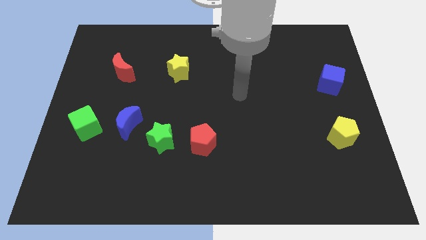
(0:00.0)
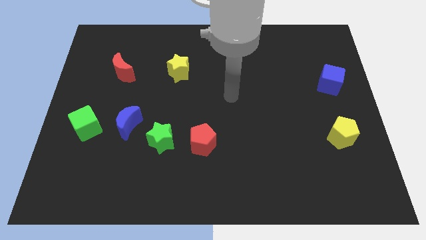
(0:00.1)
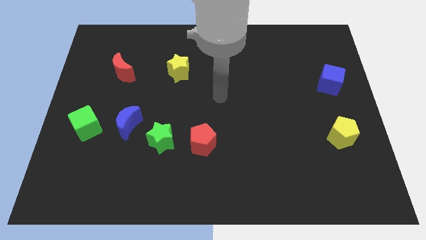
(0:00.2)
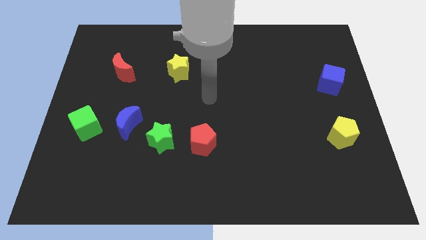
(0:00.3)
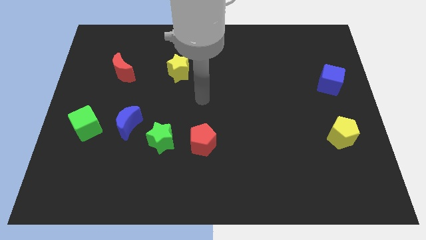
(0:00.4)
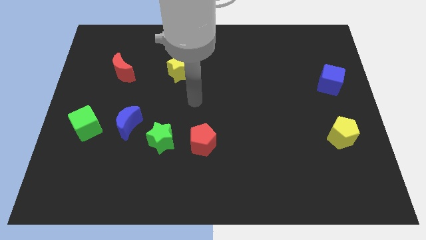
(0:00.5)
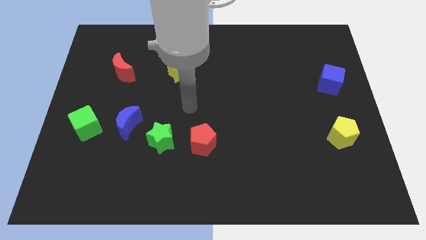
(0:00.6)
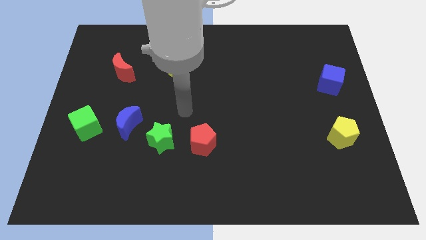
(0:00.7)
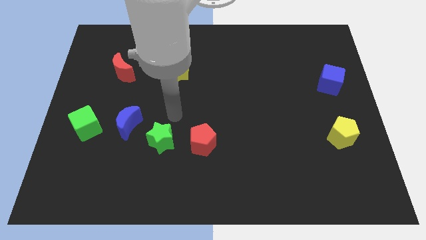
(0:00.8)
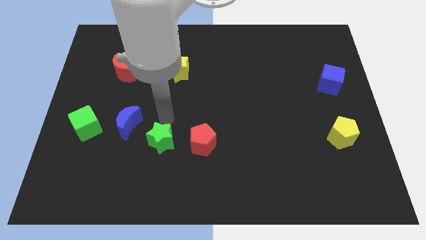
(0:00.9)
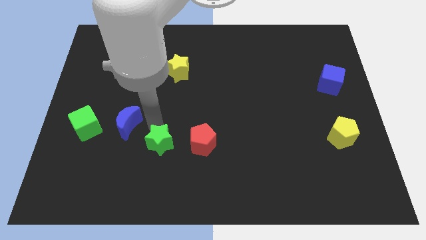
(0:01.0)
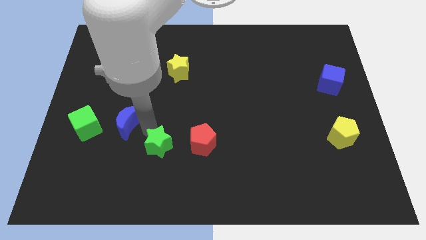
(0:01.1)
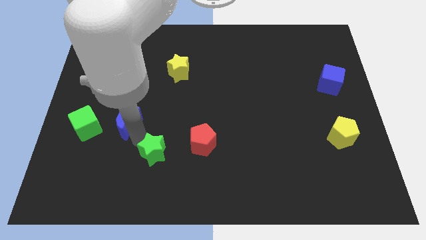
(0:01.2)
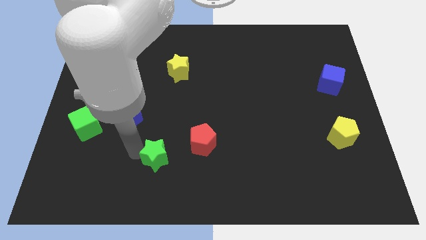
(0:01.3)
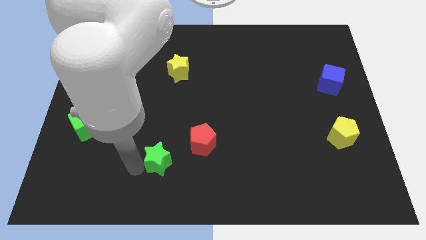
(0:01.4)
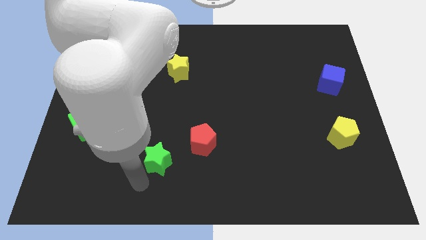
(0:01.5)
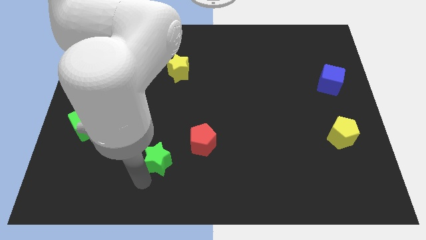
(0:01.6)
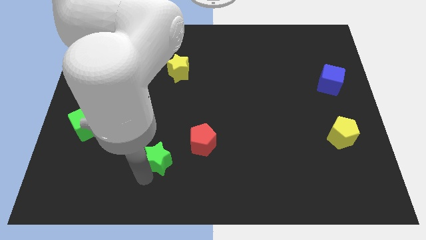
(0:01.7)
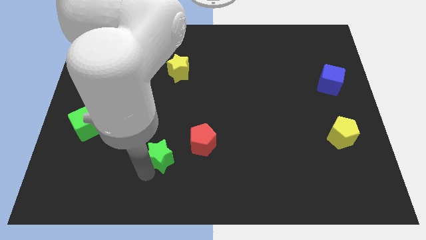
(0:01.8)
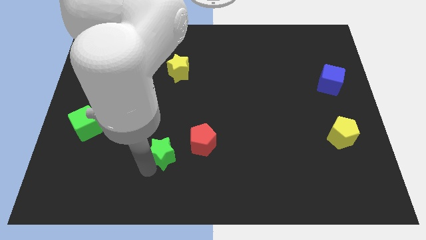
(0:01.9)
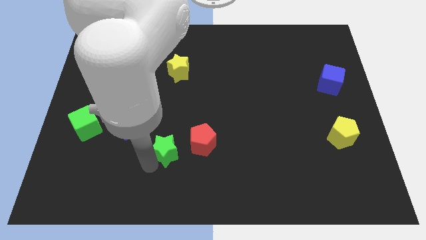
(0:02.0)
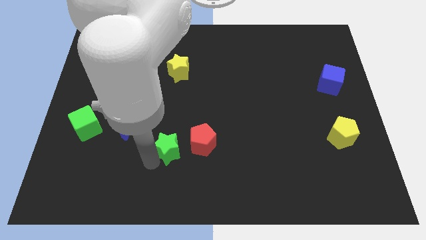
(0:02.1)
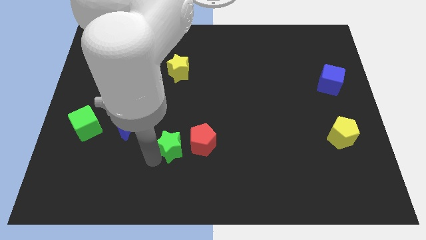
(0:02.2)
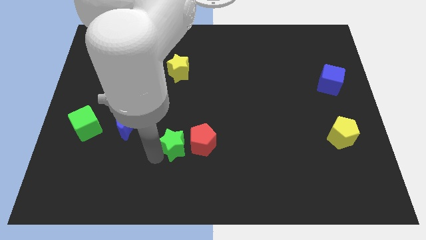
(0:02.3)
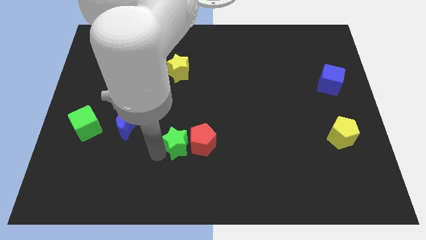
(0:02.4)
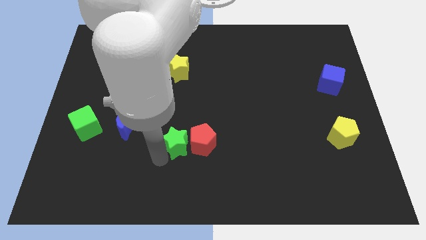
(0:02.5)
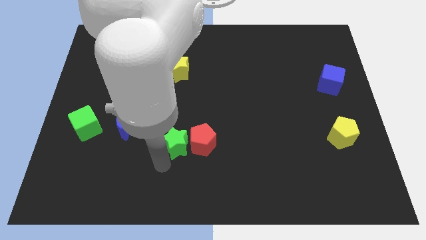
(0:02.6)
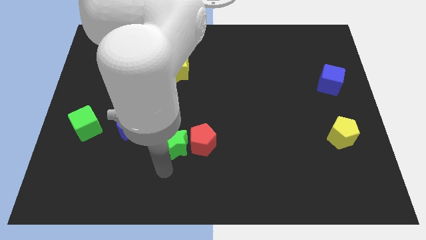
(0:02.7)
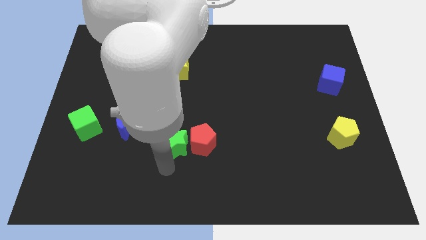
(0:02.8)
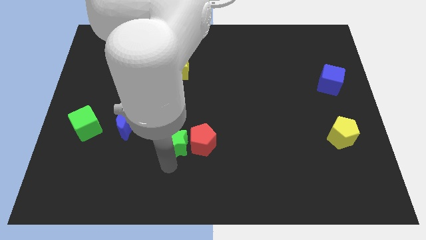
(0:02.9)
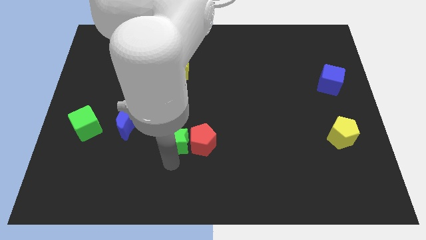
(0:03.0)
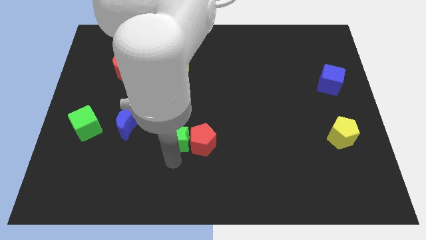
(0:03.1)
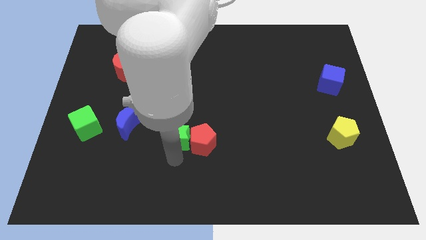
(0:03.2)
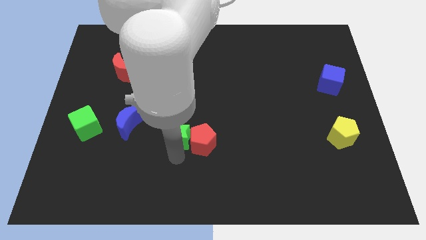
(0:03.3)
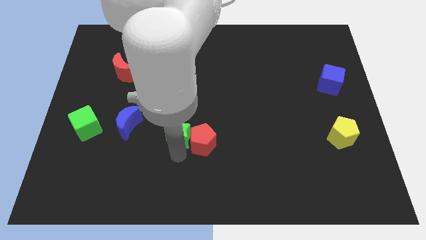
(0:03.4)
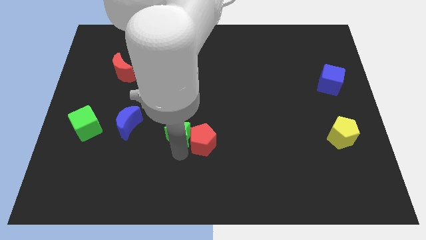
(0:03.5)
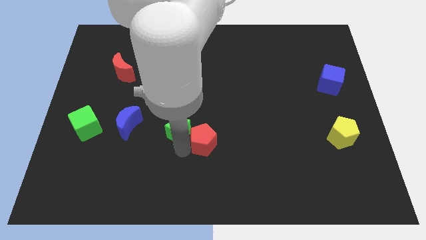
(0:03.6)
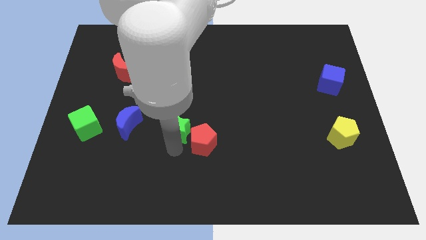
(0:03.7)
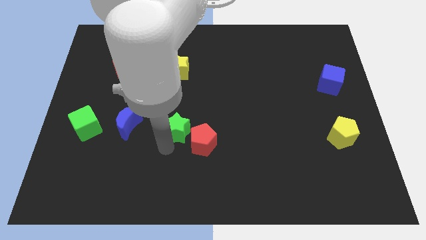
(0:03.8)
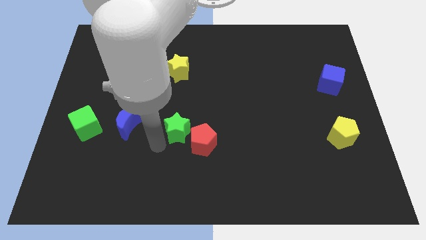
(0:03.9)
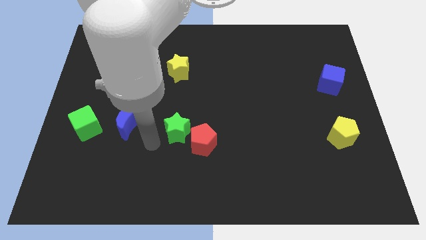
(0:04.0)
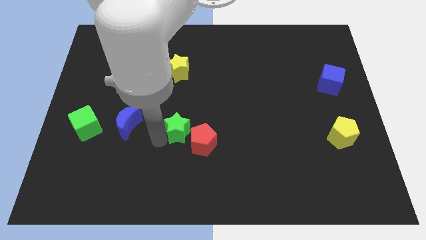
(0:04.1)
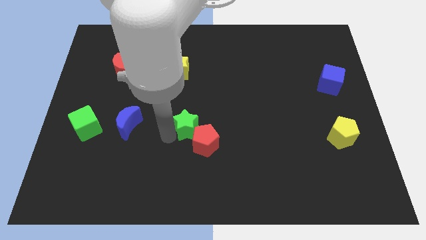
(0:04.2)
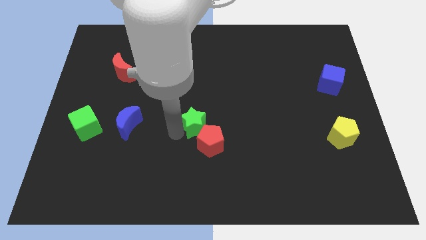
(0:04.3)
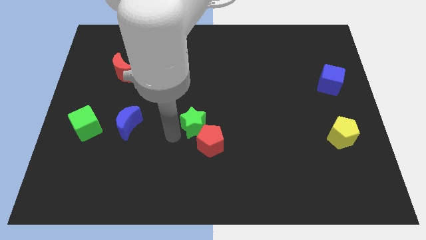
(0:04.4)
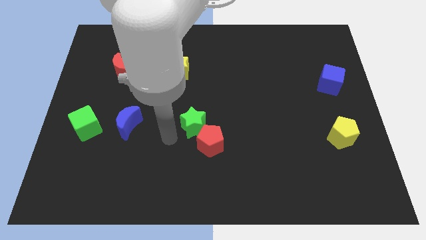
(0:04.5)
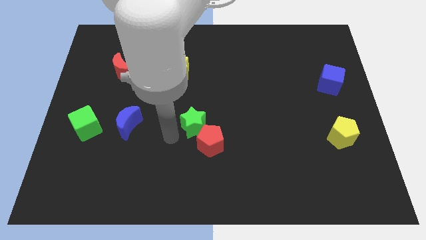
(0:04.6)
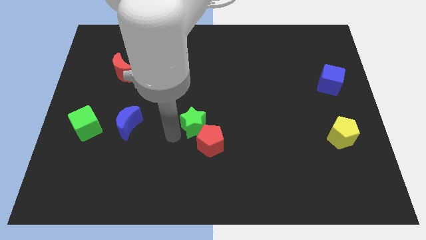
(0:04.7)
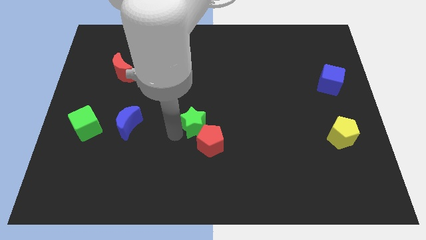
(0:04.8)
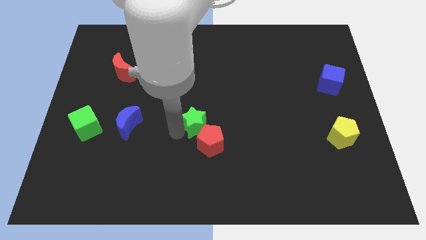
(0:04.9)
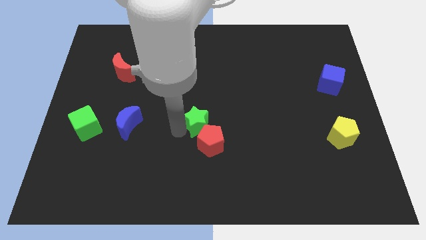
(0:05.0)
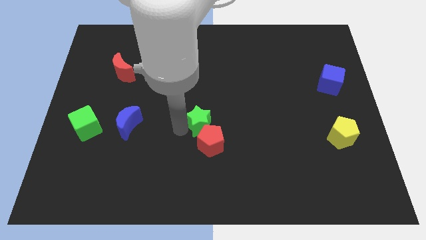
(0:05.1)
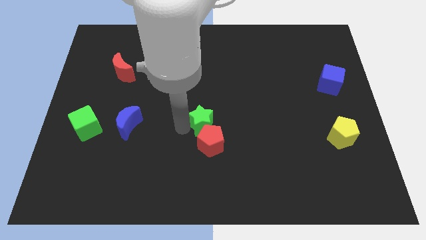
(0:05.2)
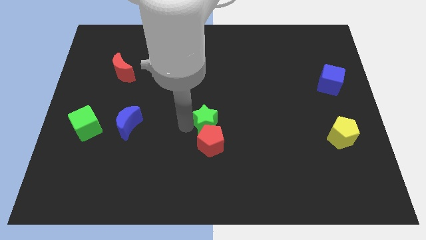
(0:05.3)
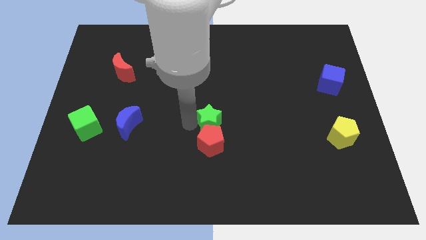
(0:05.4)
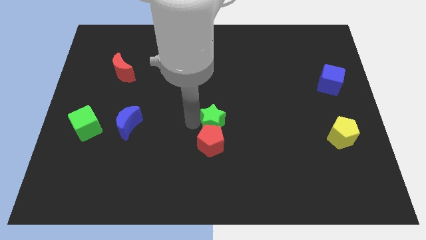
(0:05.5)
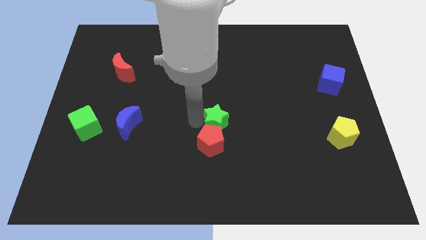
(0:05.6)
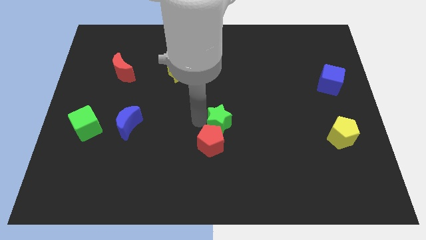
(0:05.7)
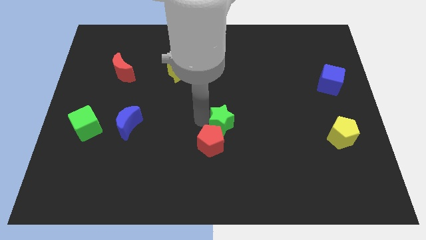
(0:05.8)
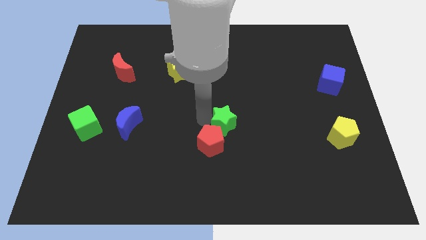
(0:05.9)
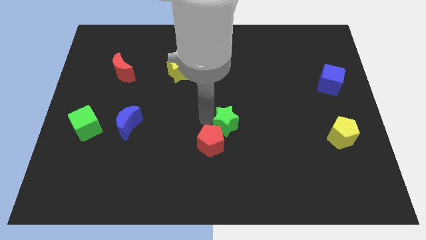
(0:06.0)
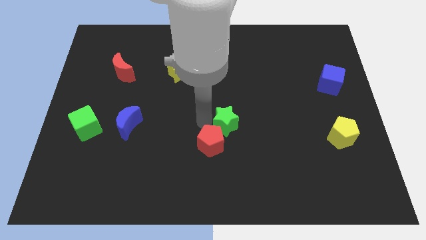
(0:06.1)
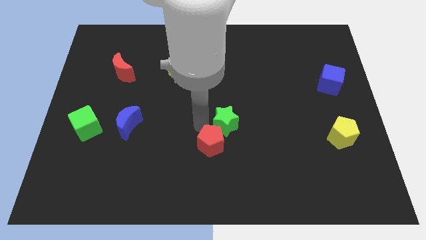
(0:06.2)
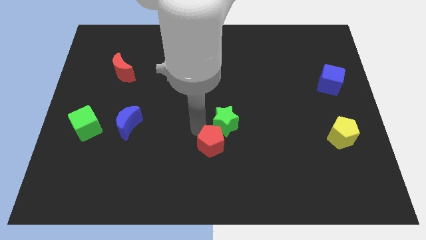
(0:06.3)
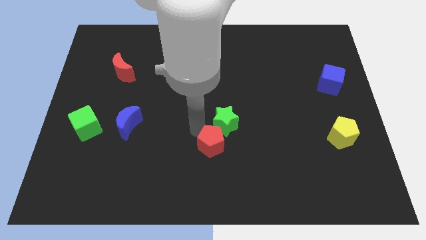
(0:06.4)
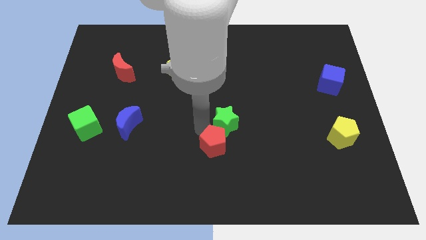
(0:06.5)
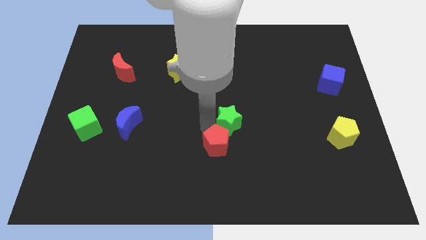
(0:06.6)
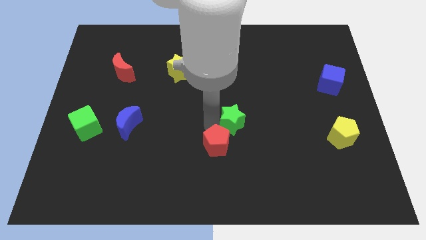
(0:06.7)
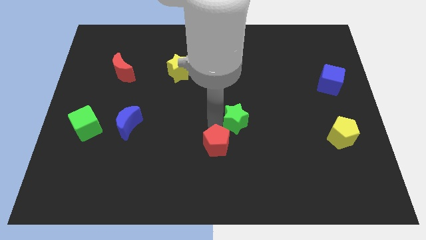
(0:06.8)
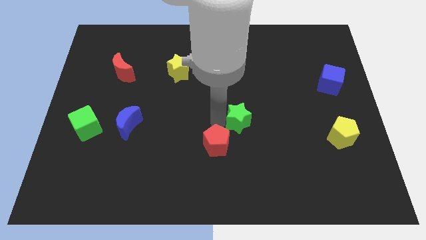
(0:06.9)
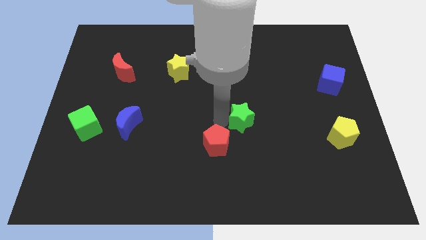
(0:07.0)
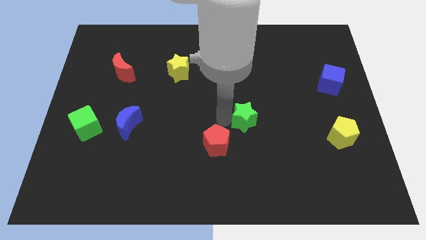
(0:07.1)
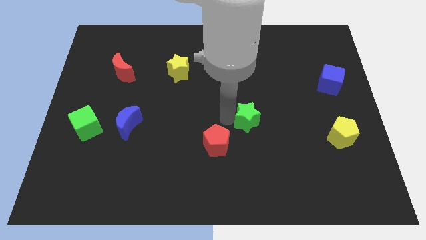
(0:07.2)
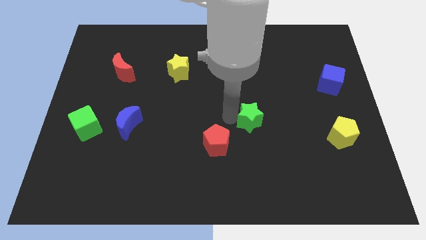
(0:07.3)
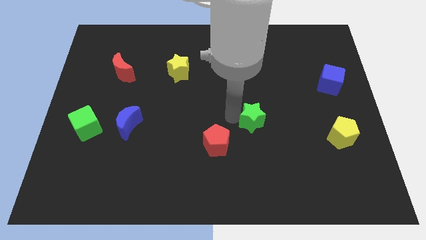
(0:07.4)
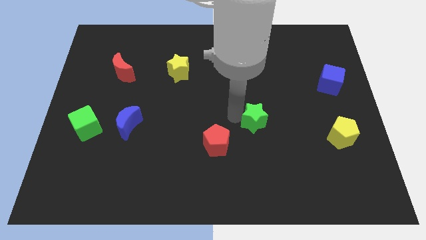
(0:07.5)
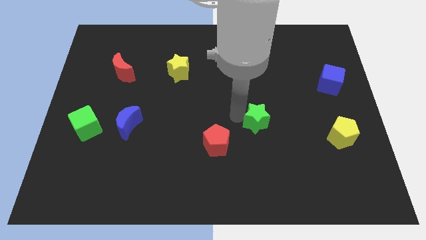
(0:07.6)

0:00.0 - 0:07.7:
push the green star to the right

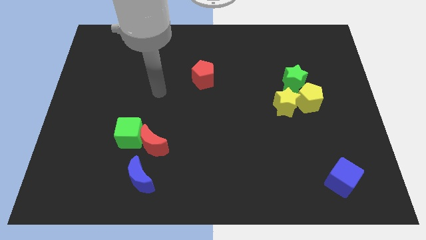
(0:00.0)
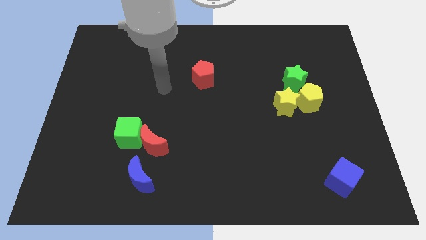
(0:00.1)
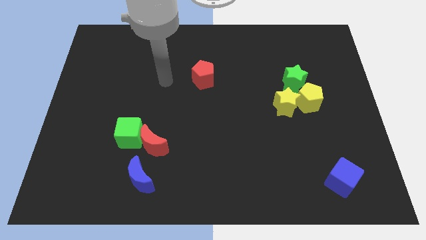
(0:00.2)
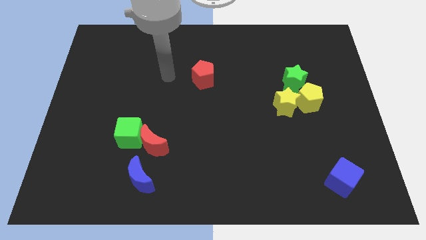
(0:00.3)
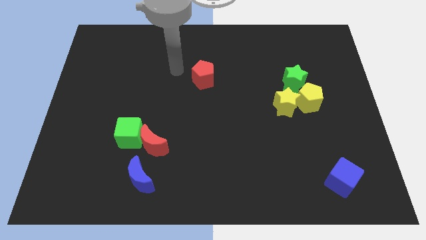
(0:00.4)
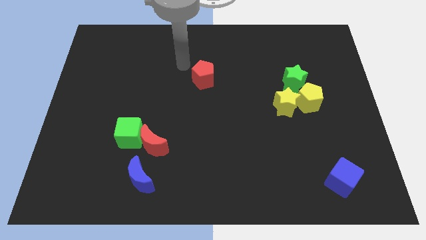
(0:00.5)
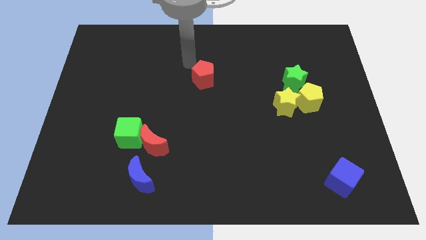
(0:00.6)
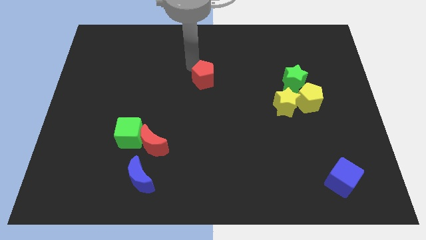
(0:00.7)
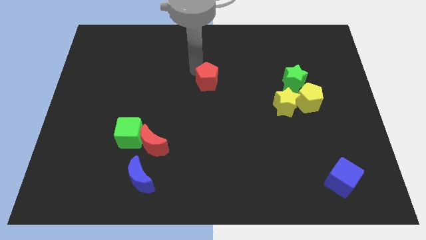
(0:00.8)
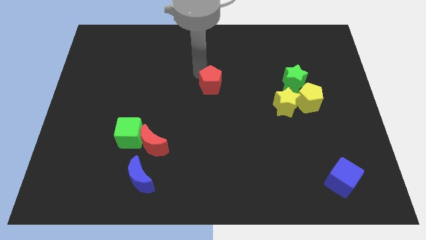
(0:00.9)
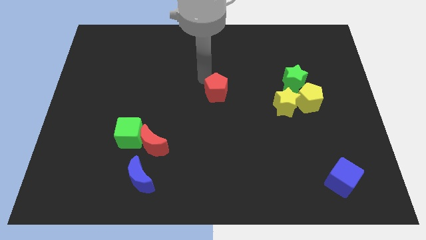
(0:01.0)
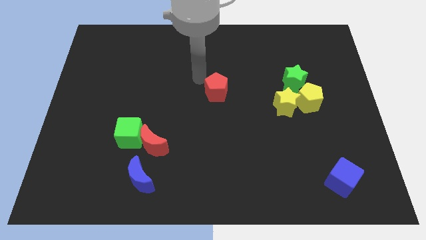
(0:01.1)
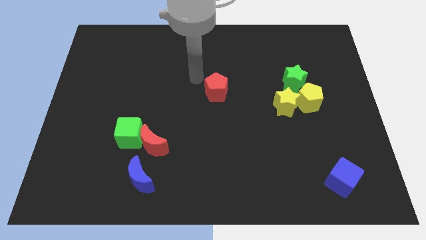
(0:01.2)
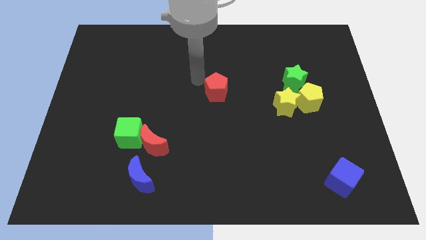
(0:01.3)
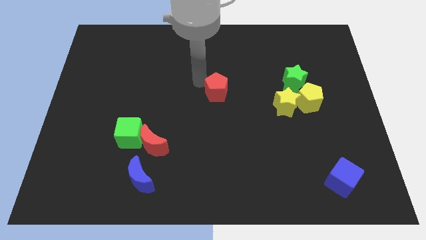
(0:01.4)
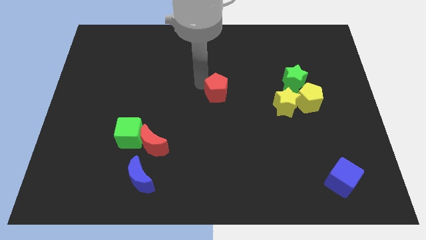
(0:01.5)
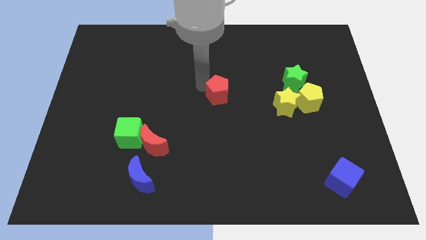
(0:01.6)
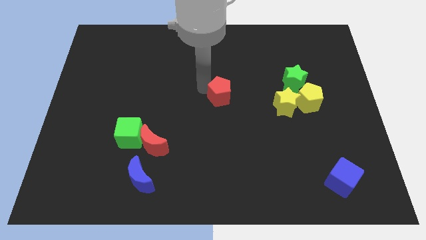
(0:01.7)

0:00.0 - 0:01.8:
slightly move the red pentagon down and then to the right
